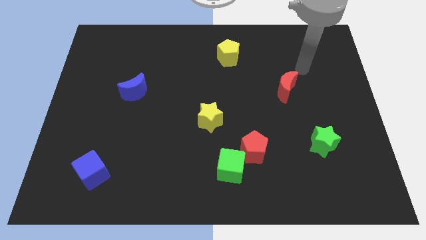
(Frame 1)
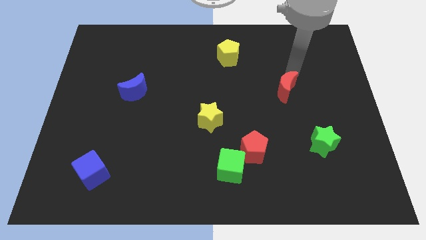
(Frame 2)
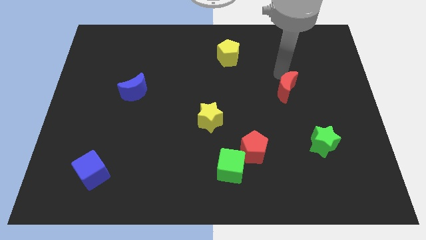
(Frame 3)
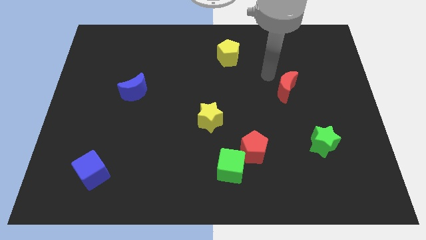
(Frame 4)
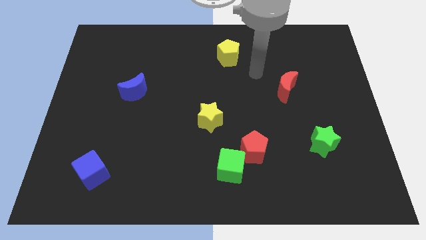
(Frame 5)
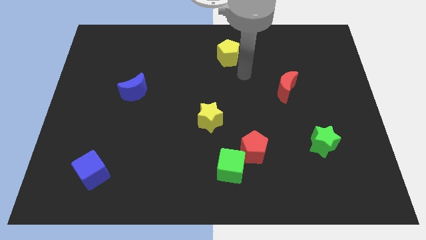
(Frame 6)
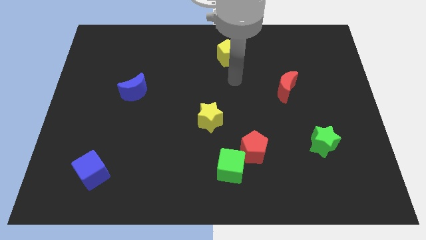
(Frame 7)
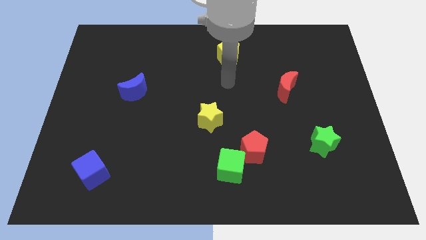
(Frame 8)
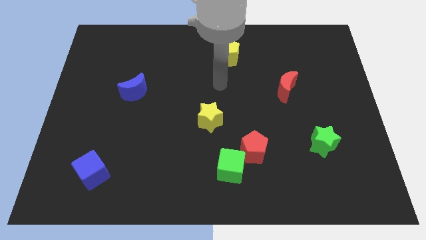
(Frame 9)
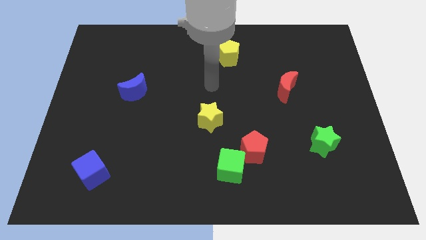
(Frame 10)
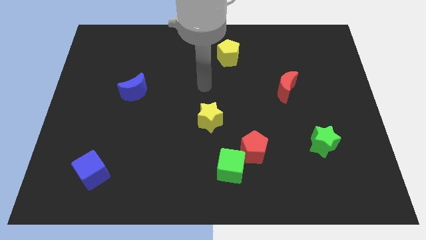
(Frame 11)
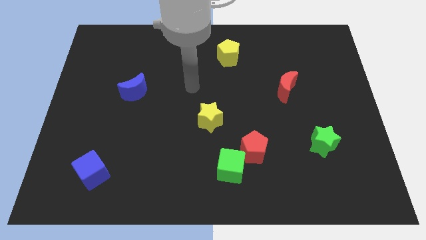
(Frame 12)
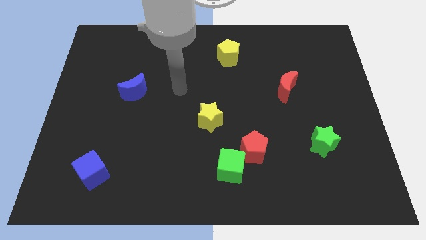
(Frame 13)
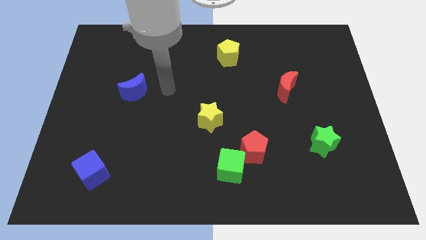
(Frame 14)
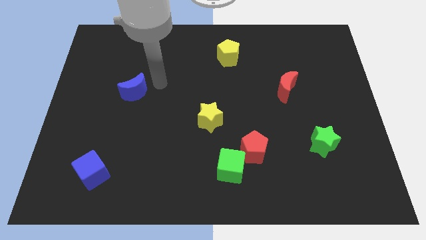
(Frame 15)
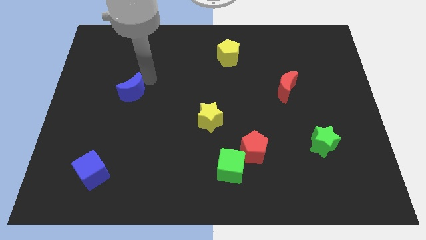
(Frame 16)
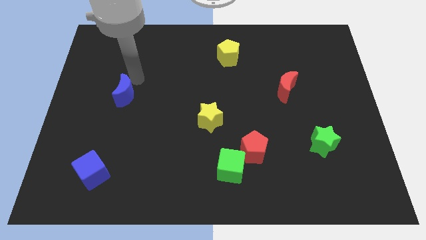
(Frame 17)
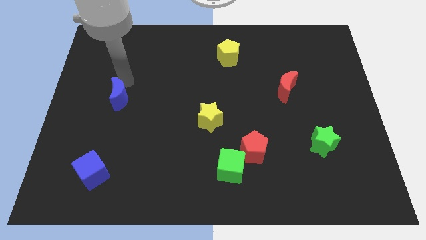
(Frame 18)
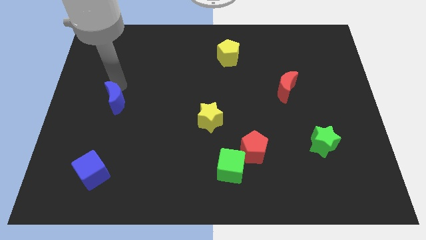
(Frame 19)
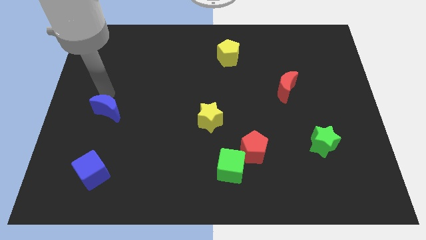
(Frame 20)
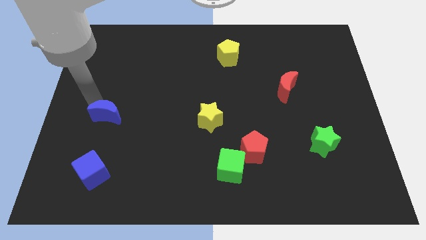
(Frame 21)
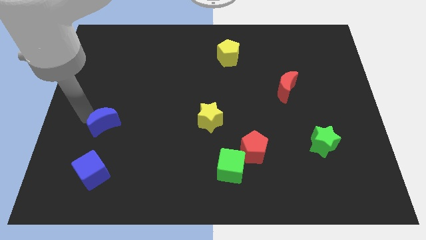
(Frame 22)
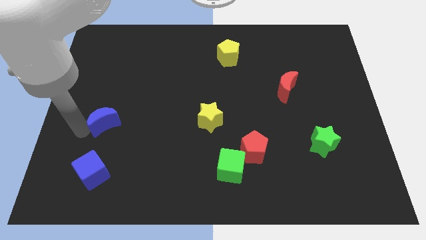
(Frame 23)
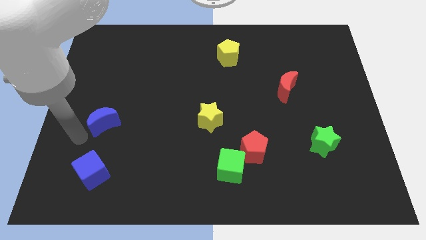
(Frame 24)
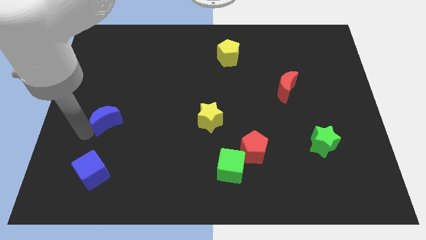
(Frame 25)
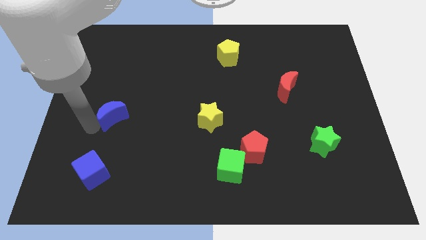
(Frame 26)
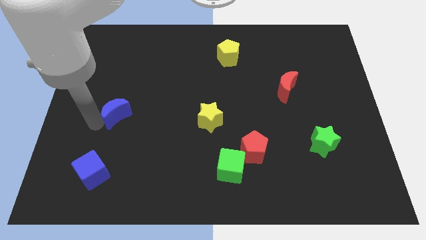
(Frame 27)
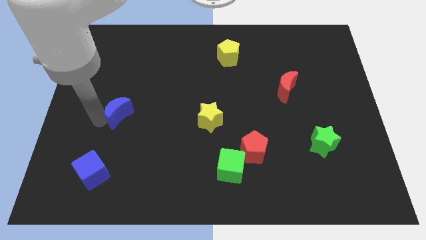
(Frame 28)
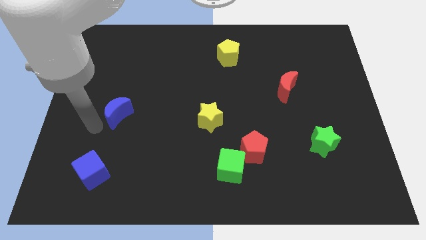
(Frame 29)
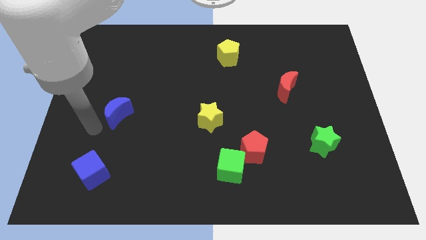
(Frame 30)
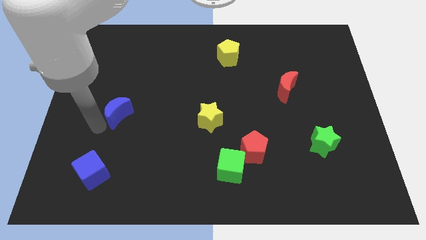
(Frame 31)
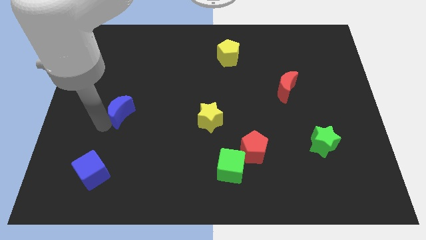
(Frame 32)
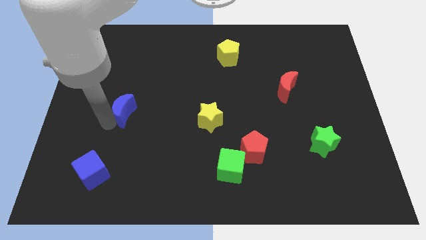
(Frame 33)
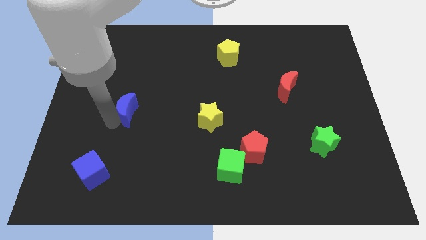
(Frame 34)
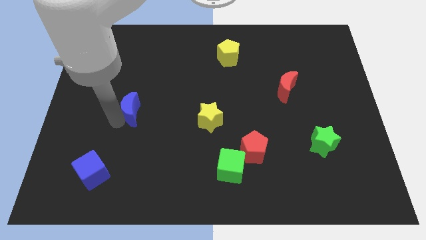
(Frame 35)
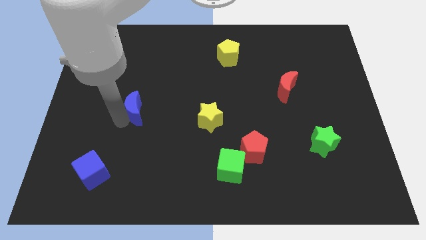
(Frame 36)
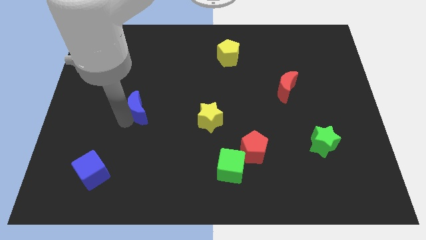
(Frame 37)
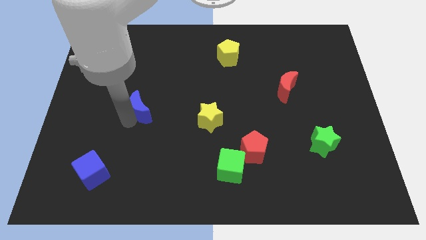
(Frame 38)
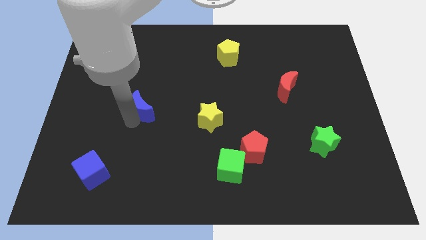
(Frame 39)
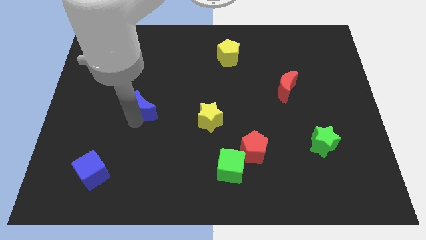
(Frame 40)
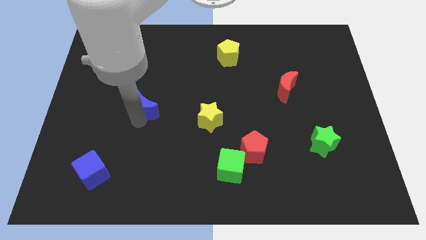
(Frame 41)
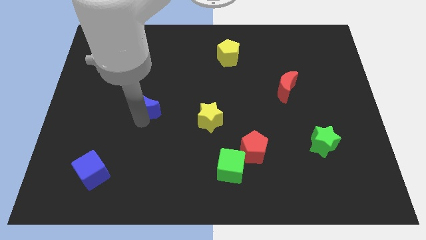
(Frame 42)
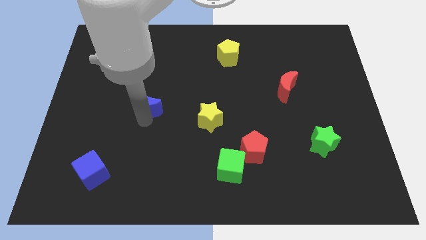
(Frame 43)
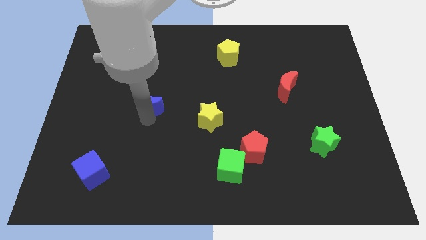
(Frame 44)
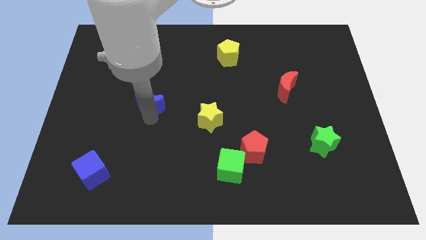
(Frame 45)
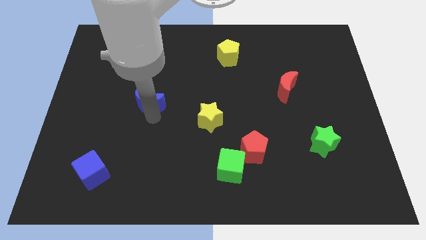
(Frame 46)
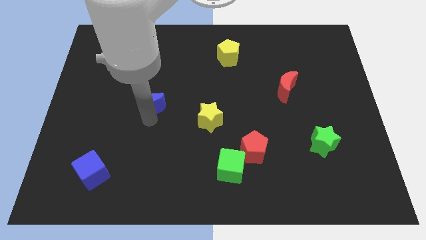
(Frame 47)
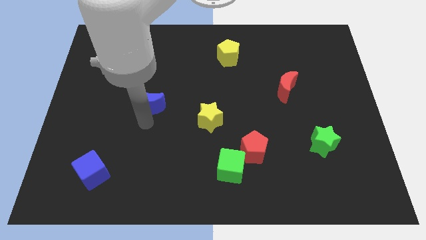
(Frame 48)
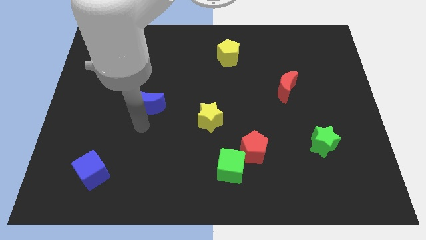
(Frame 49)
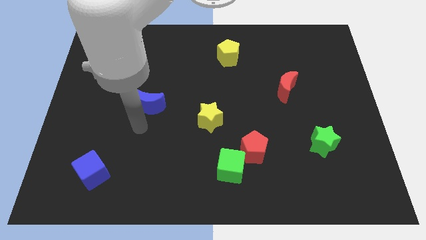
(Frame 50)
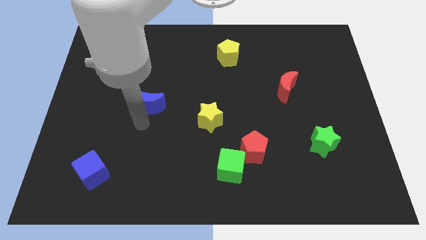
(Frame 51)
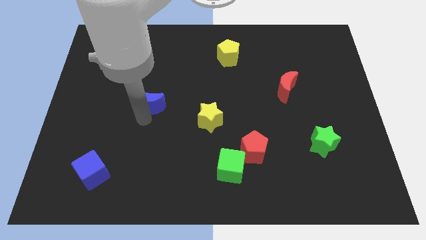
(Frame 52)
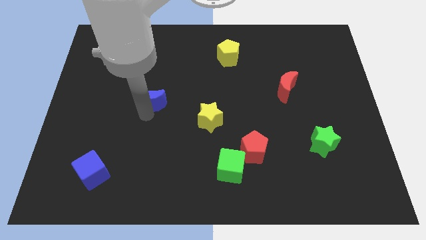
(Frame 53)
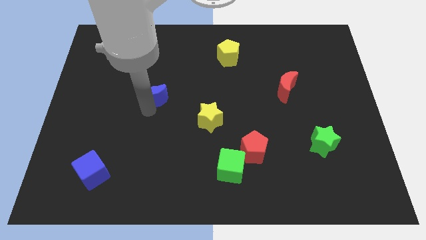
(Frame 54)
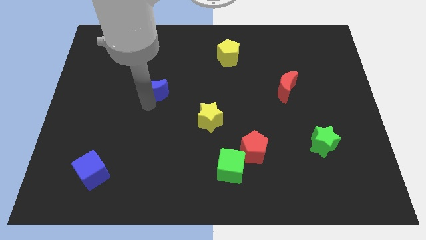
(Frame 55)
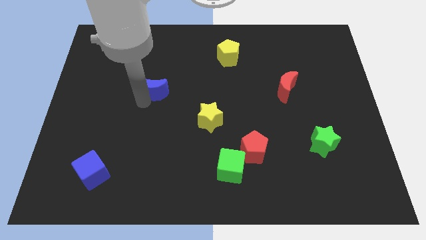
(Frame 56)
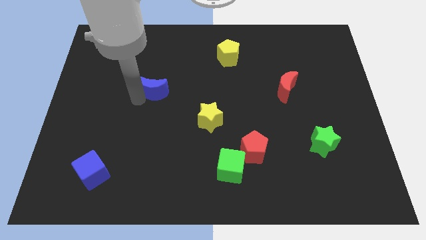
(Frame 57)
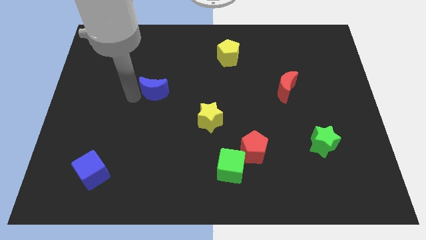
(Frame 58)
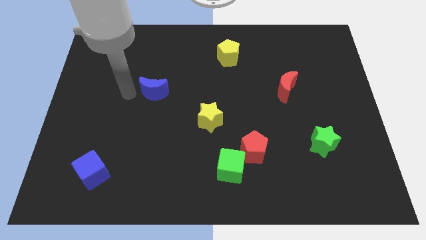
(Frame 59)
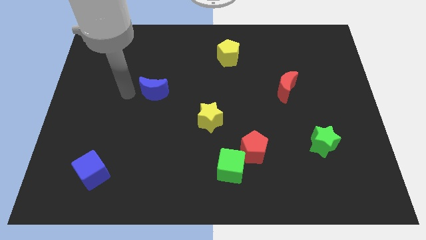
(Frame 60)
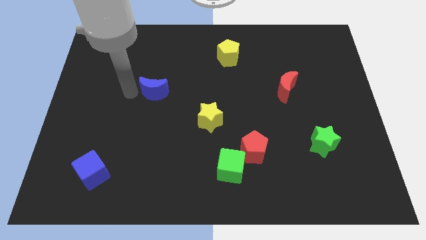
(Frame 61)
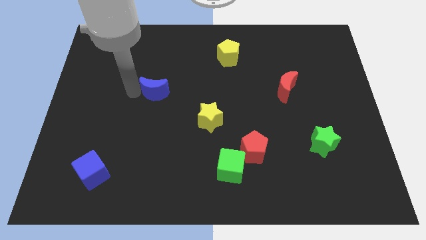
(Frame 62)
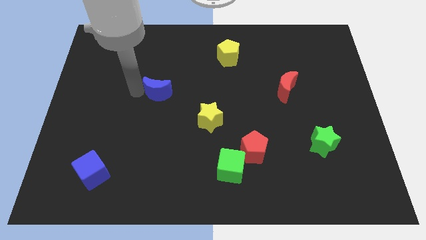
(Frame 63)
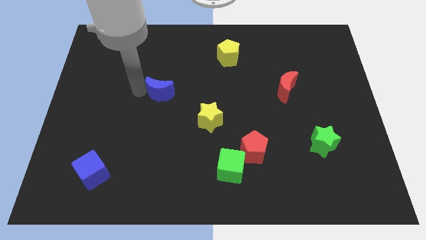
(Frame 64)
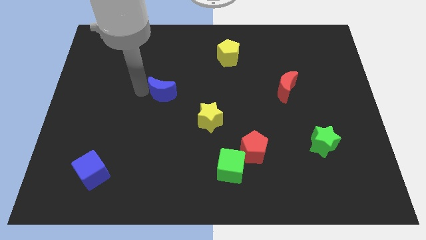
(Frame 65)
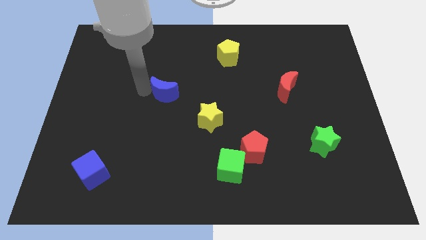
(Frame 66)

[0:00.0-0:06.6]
push the blue moon slightly to the right

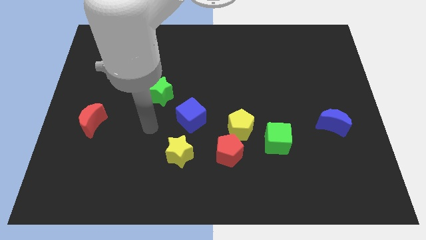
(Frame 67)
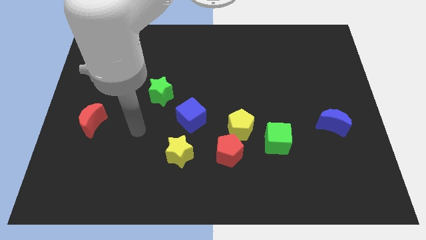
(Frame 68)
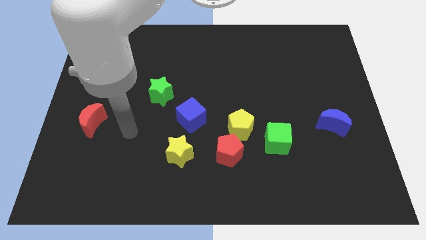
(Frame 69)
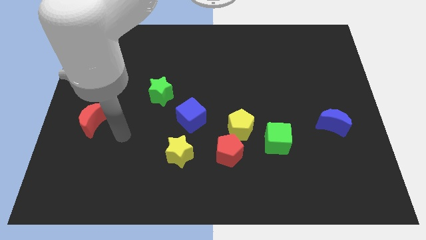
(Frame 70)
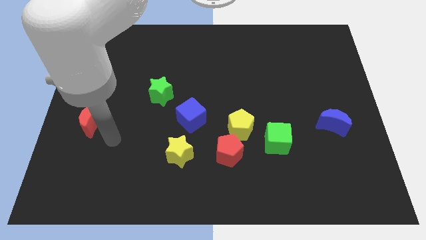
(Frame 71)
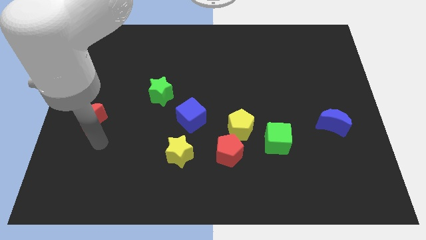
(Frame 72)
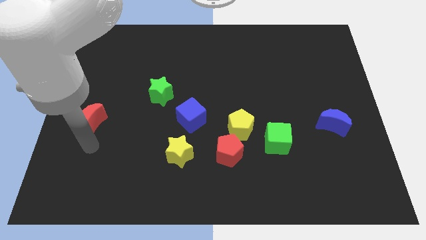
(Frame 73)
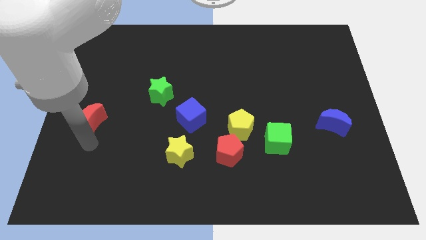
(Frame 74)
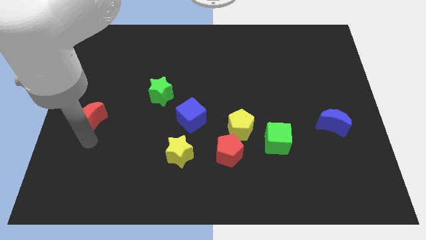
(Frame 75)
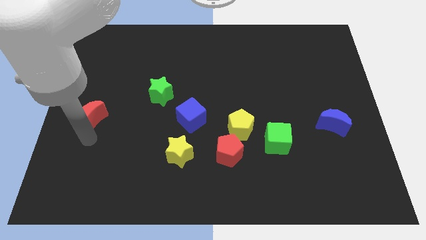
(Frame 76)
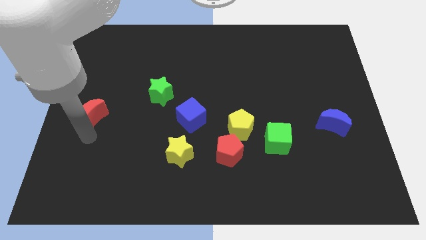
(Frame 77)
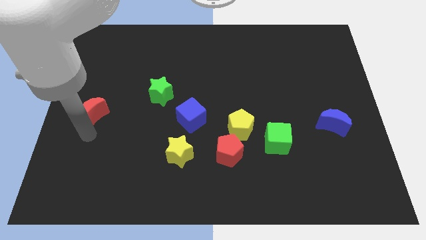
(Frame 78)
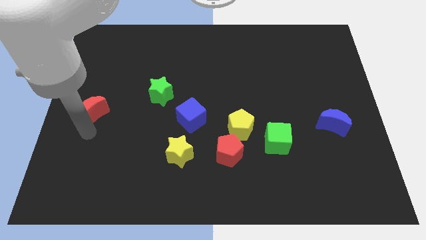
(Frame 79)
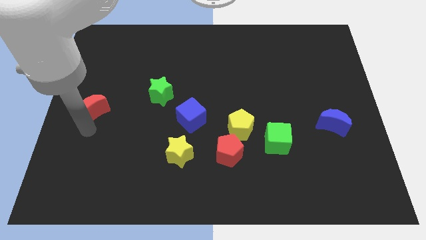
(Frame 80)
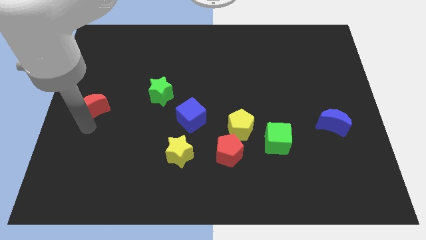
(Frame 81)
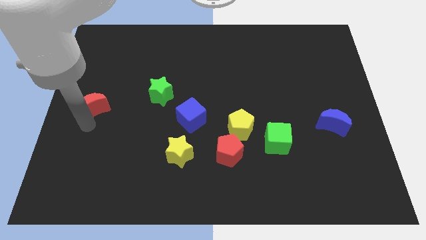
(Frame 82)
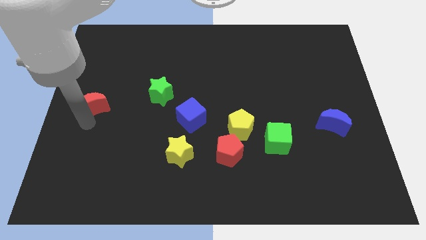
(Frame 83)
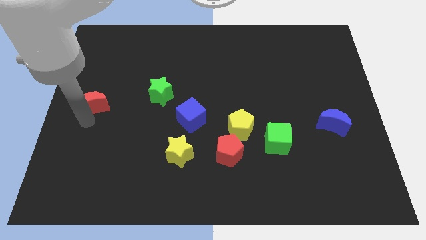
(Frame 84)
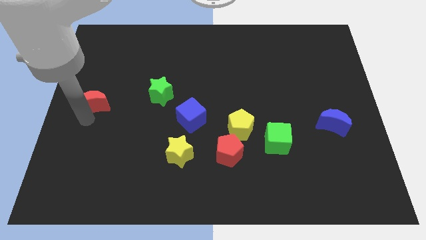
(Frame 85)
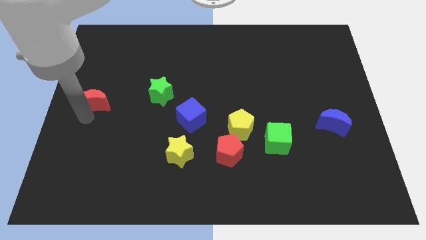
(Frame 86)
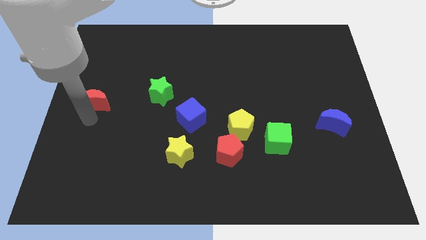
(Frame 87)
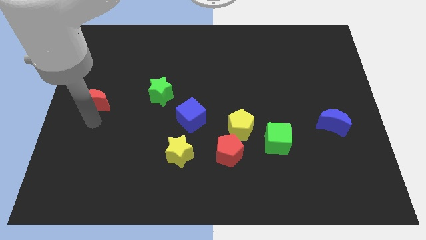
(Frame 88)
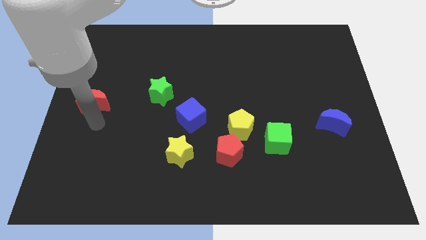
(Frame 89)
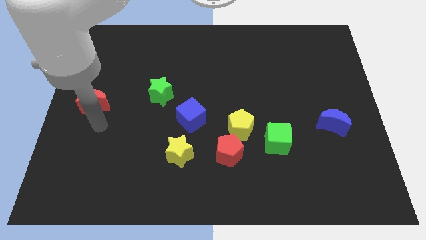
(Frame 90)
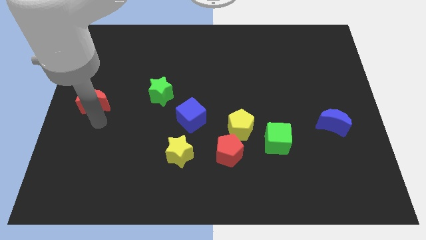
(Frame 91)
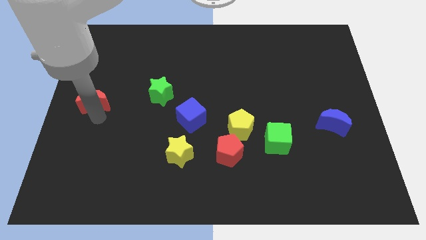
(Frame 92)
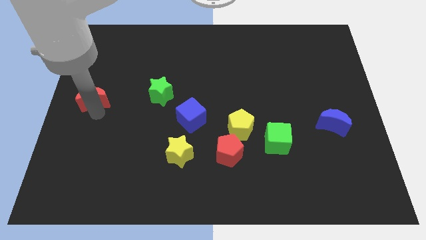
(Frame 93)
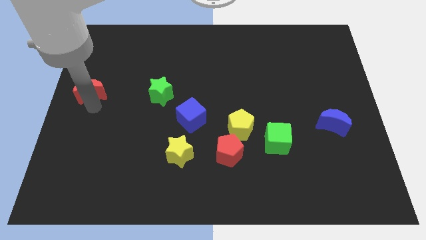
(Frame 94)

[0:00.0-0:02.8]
slide the red moon upwards slightly
